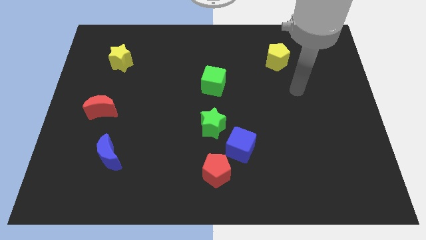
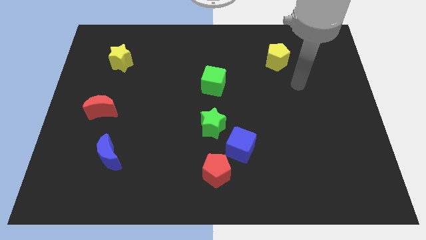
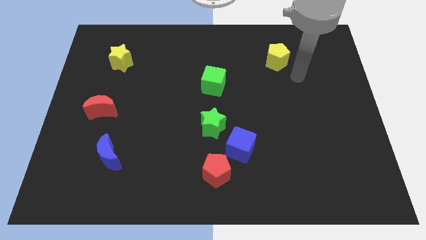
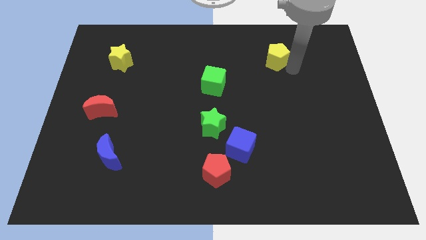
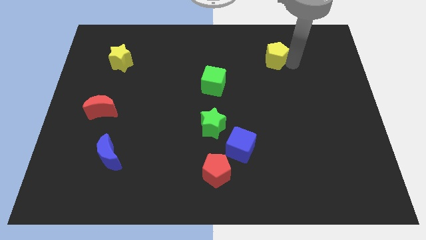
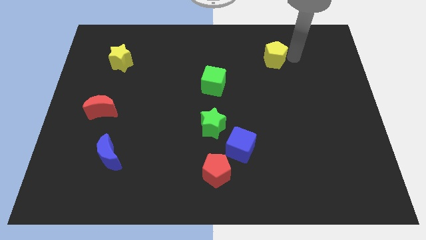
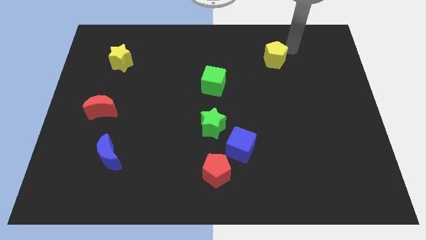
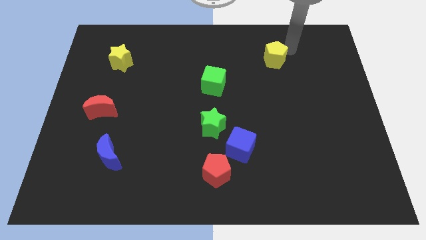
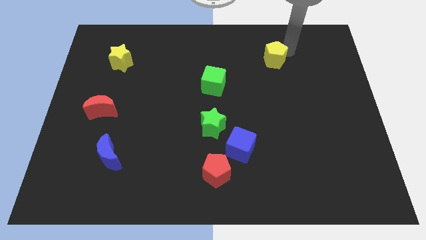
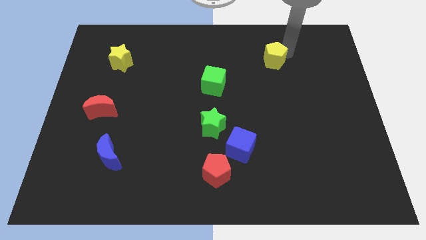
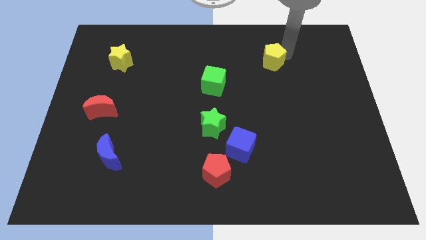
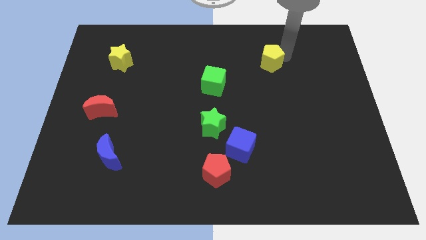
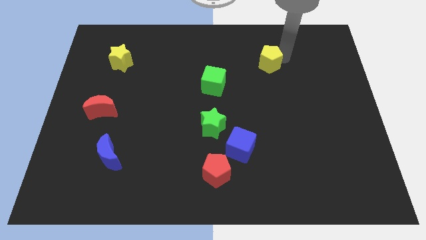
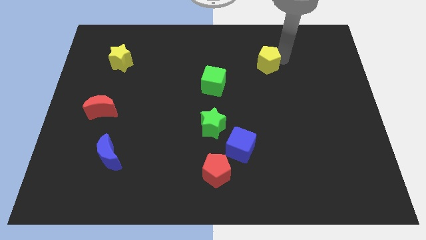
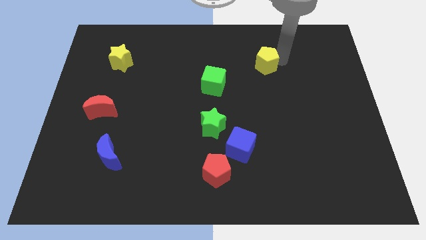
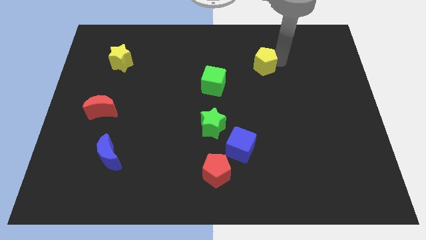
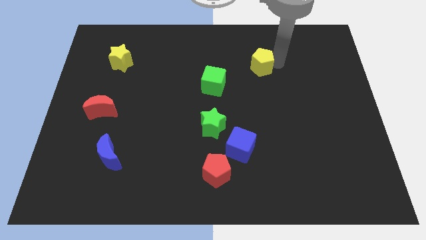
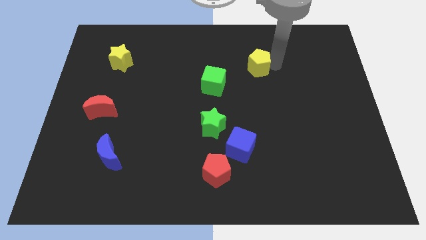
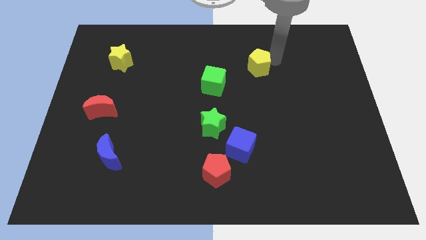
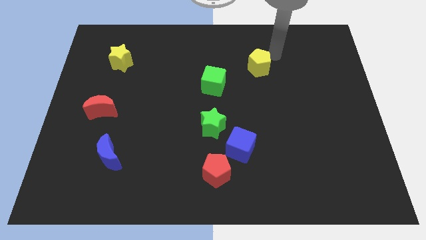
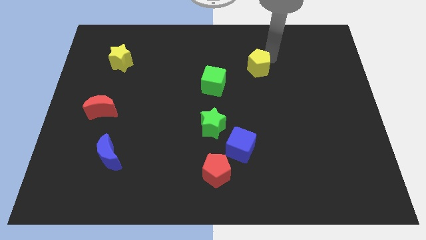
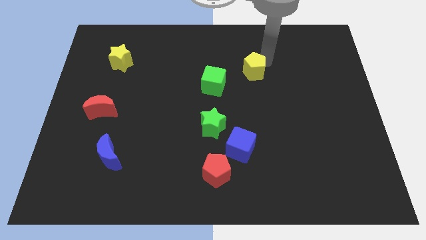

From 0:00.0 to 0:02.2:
push the yellow pentagon down and then to the left a little bit

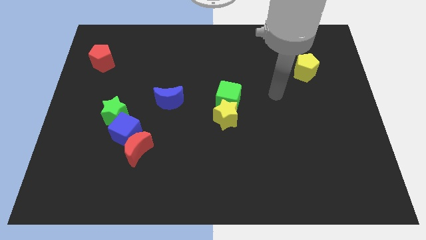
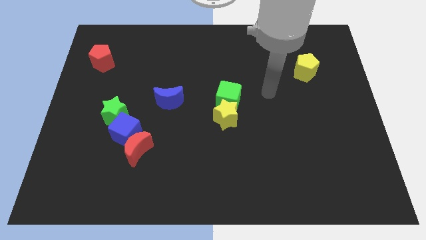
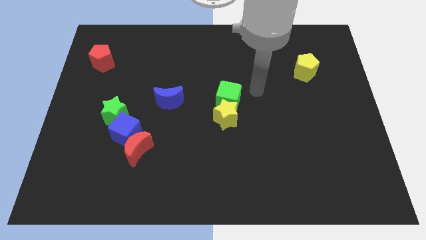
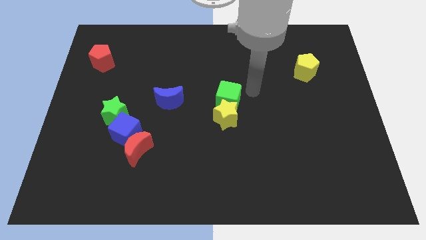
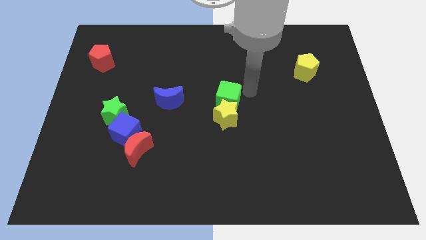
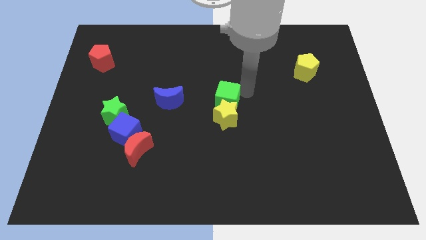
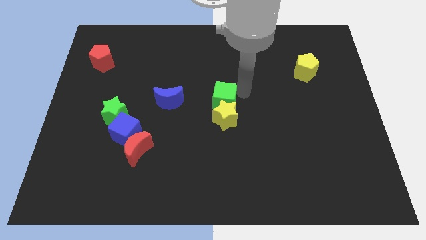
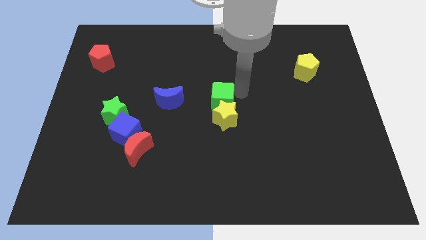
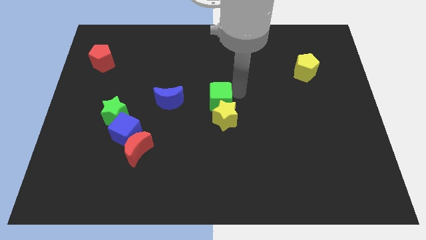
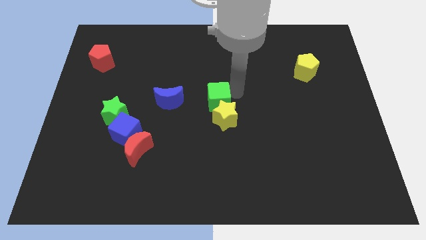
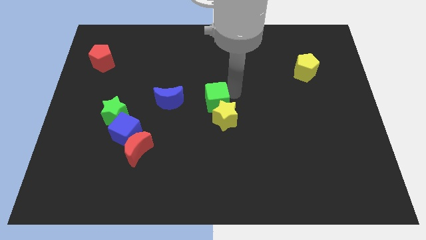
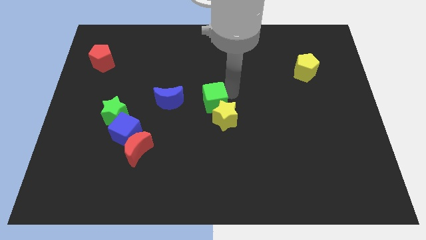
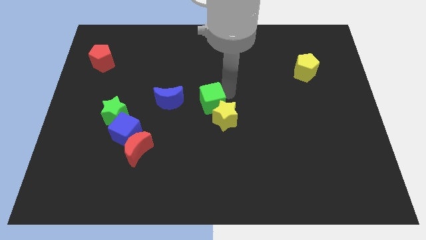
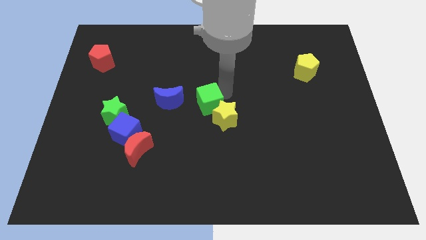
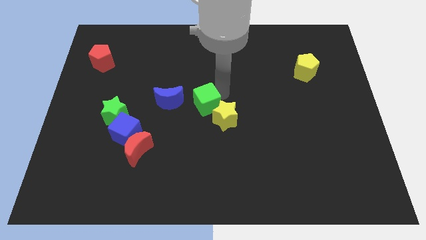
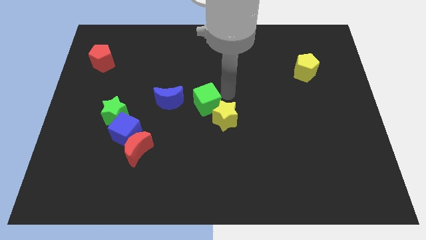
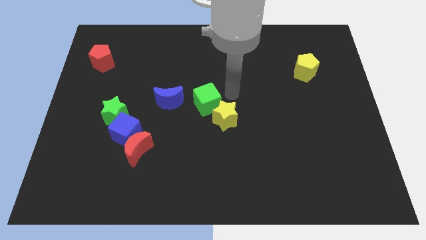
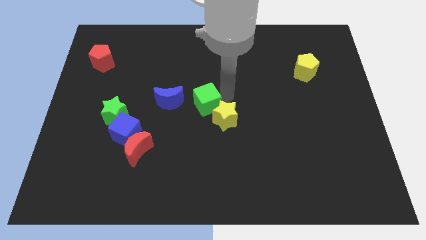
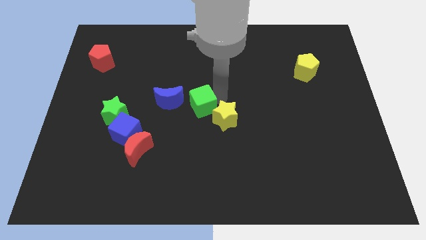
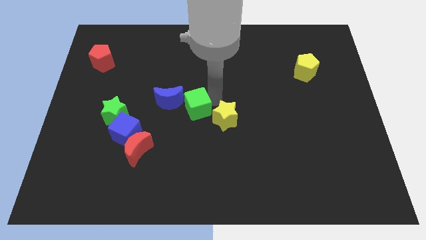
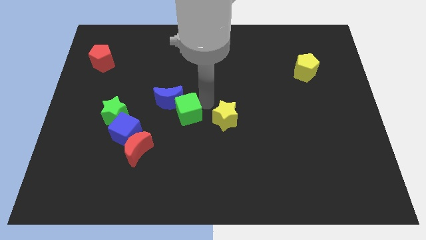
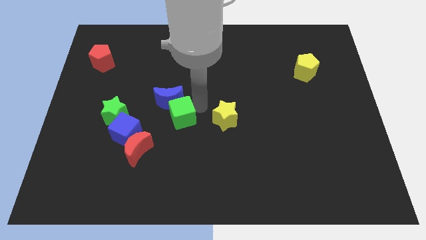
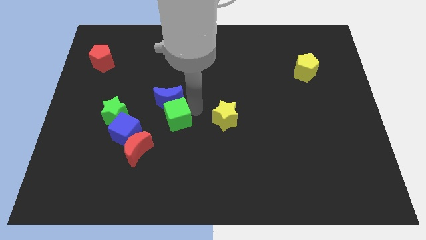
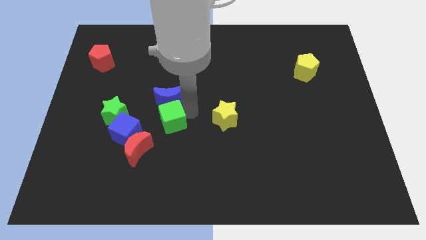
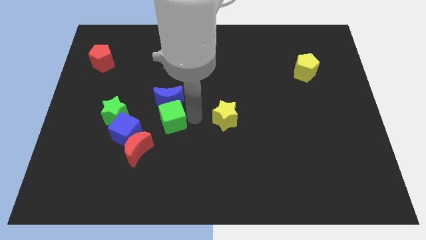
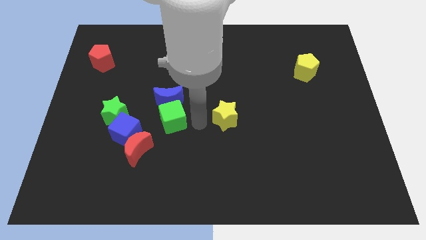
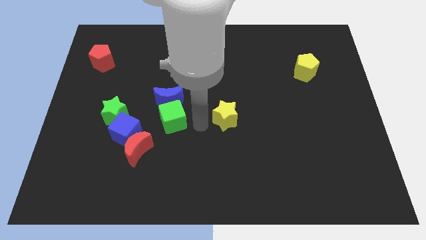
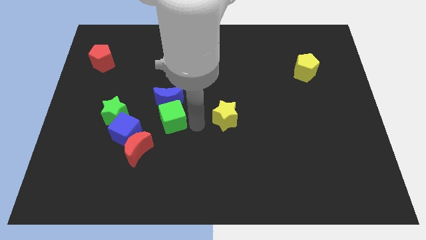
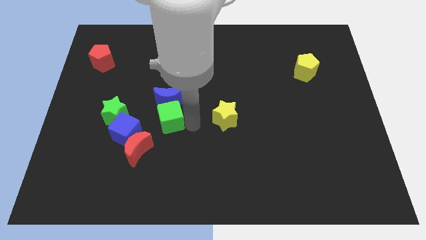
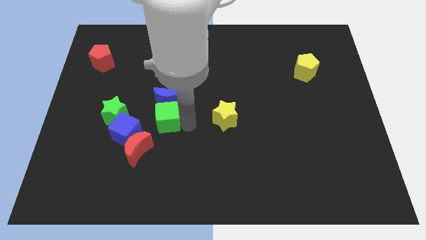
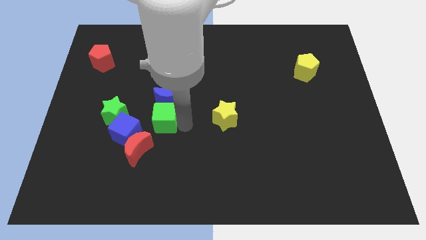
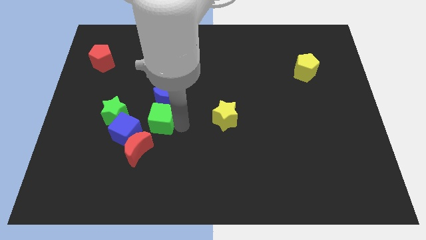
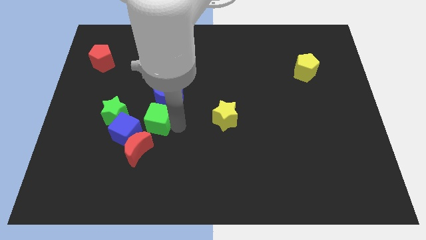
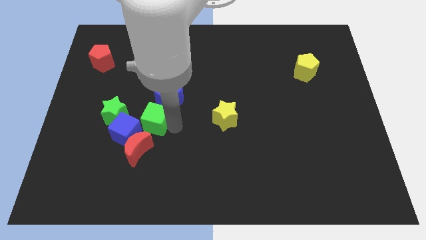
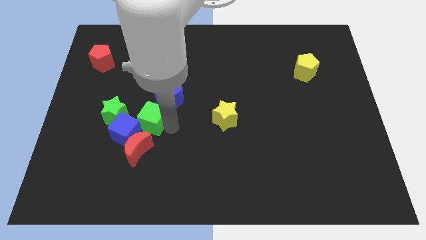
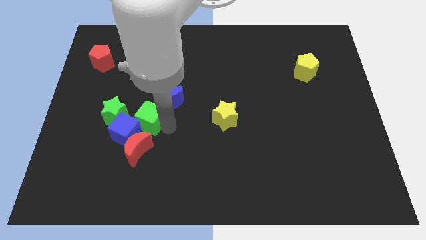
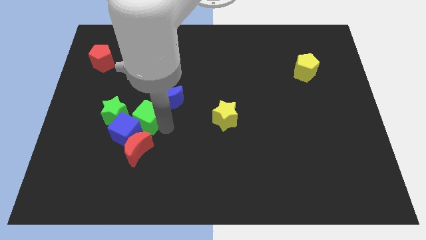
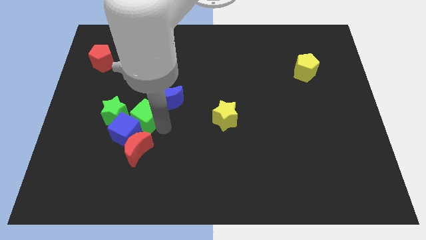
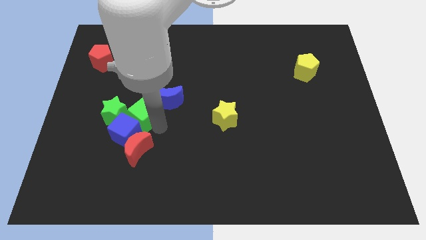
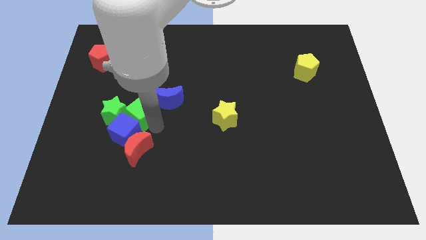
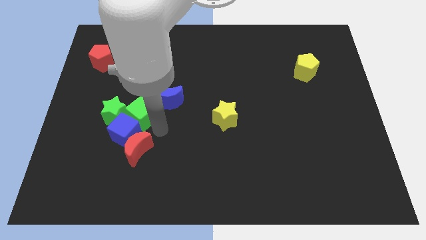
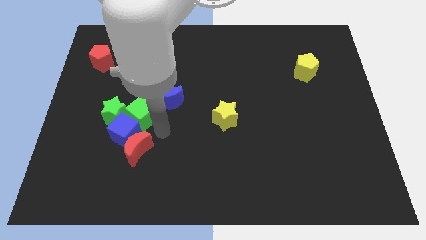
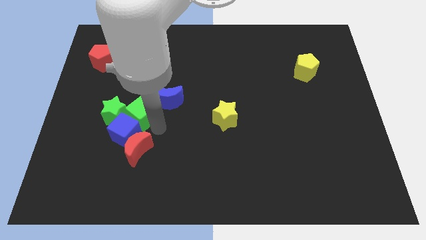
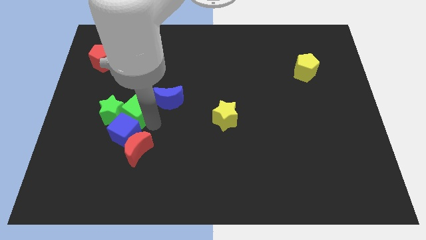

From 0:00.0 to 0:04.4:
slide the green cube to the left

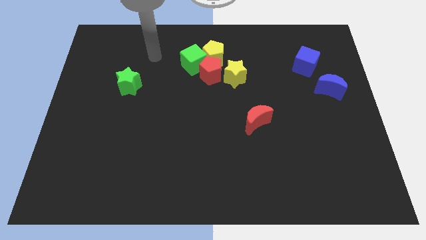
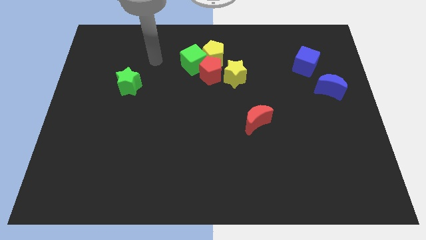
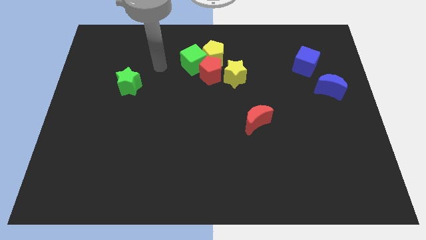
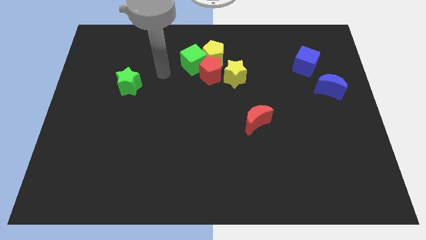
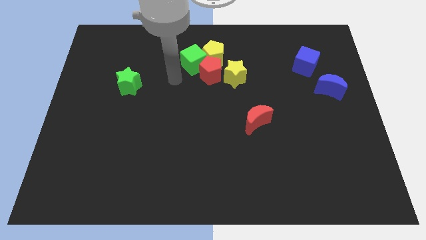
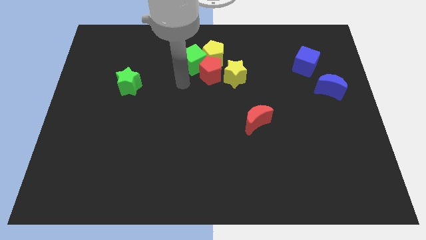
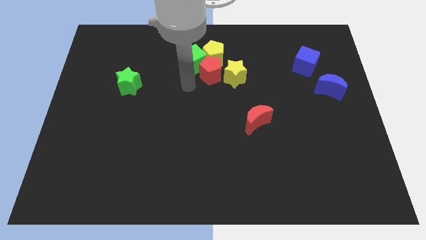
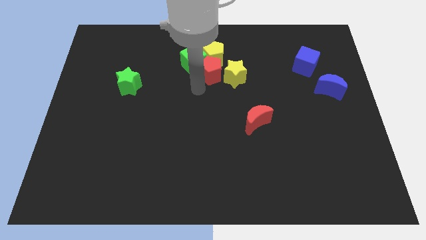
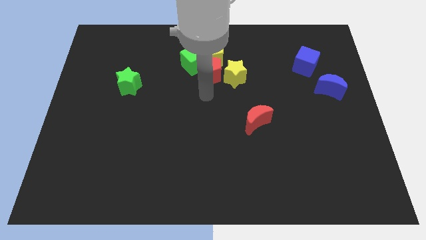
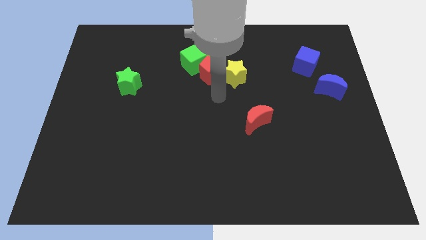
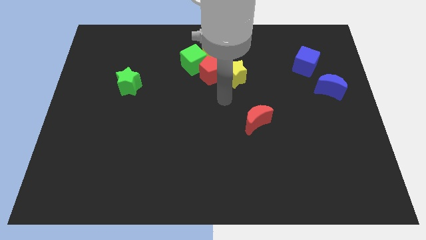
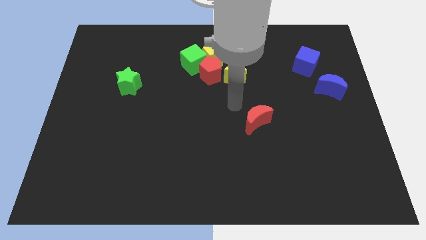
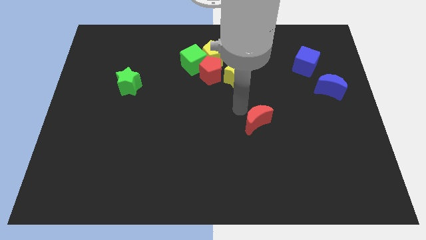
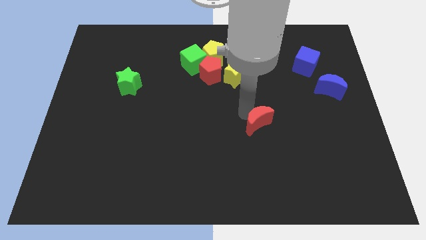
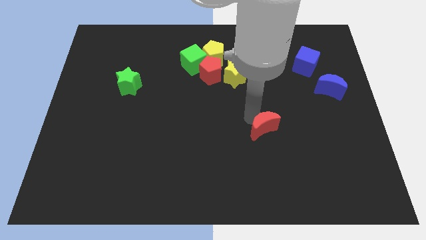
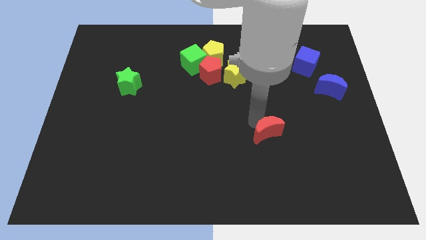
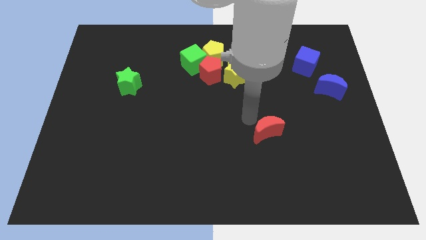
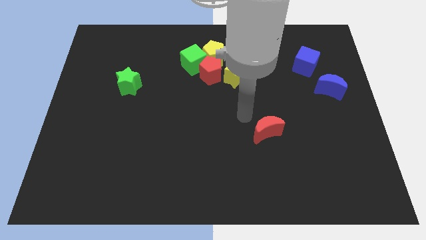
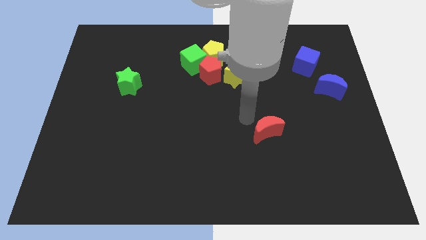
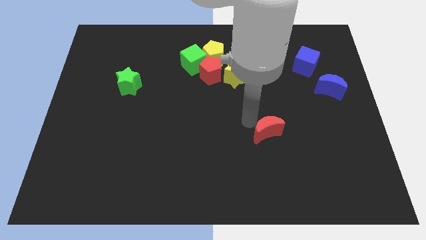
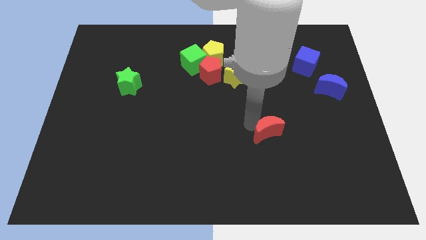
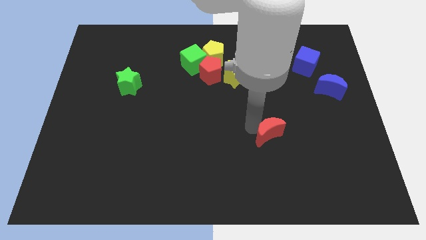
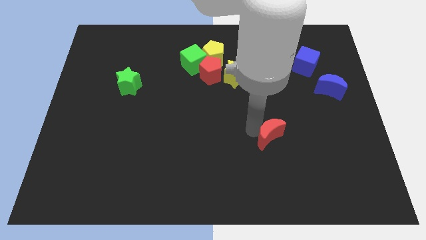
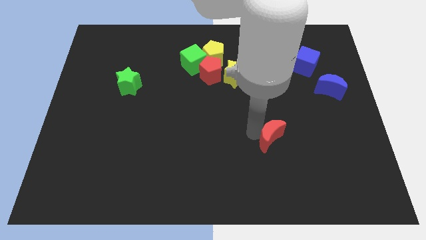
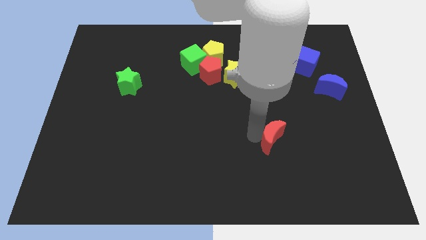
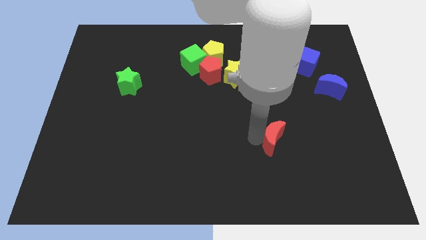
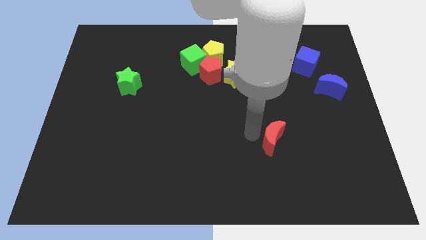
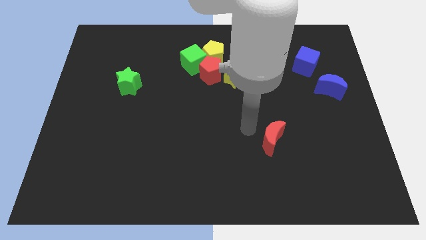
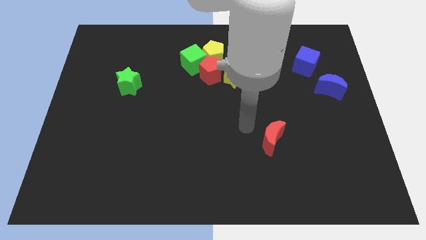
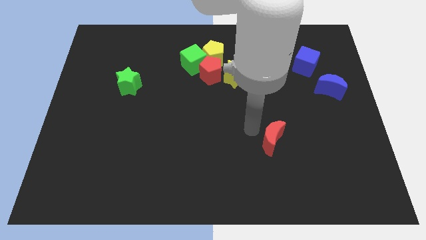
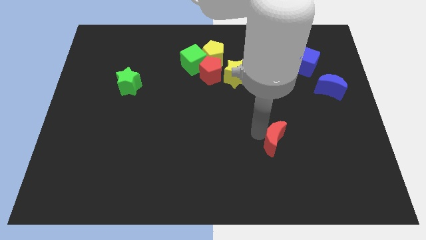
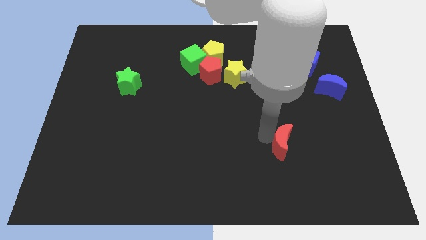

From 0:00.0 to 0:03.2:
move the red moon a little bit downwards and to the right diagonally
